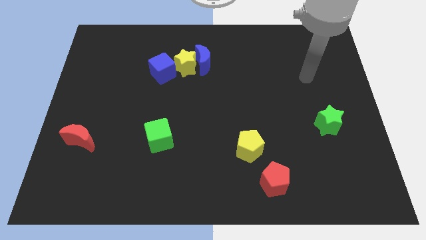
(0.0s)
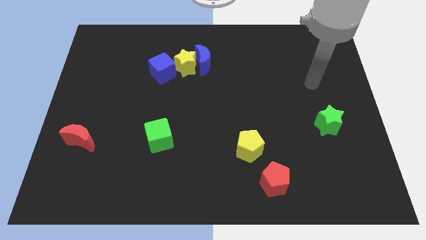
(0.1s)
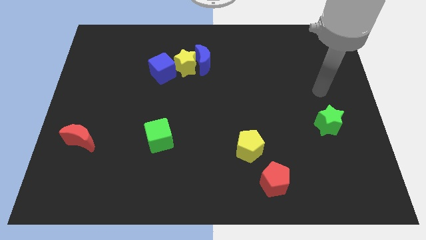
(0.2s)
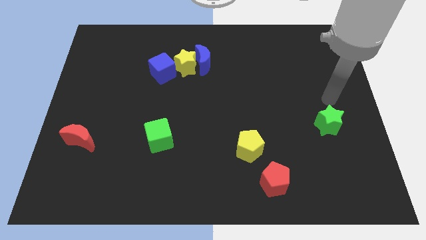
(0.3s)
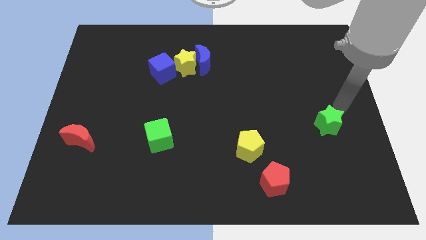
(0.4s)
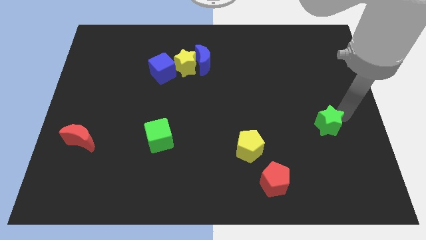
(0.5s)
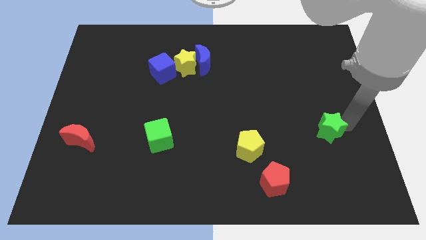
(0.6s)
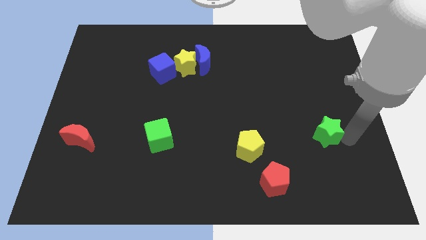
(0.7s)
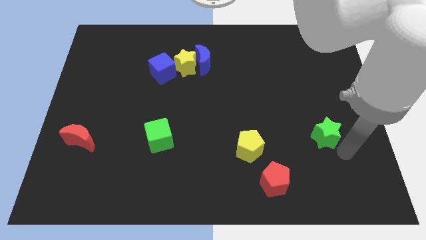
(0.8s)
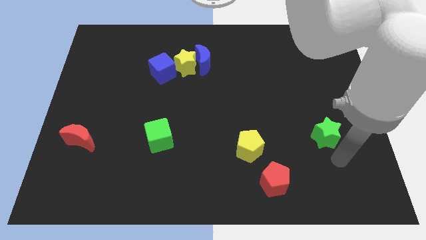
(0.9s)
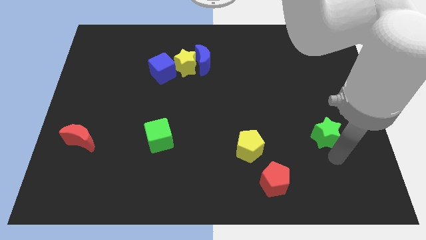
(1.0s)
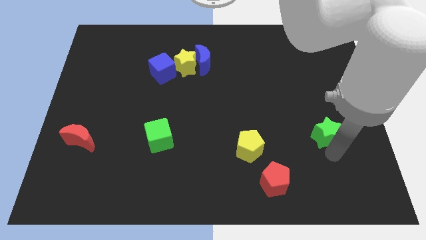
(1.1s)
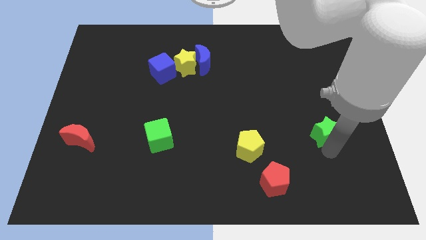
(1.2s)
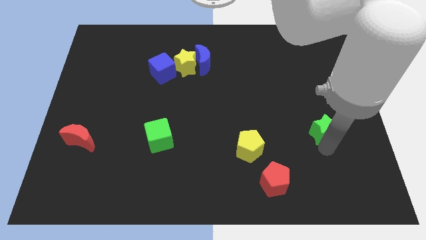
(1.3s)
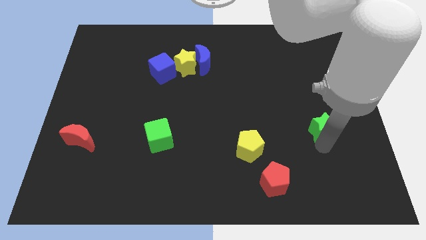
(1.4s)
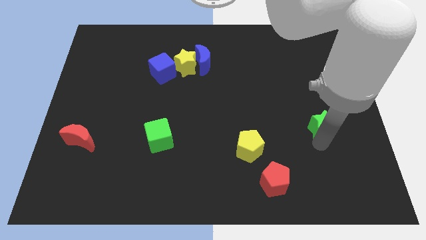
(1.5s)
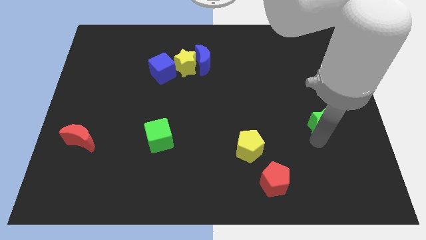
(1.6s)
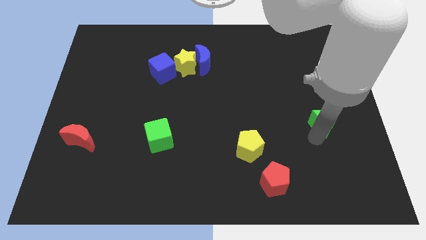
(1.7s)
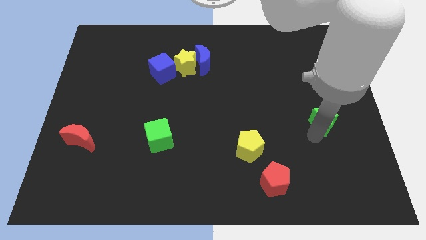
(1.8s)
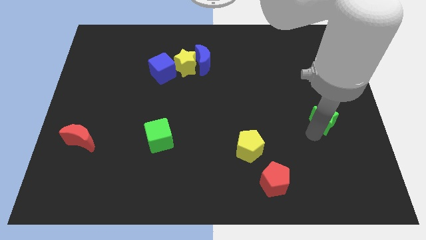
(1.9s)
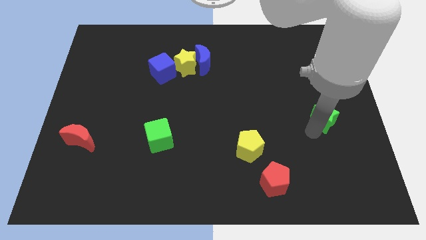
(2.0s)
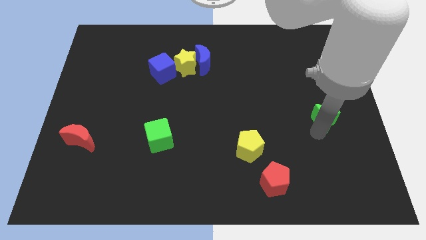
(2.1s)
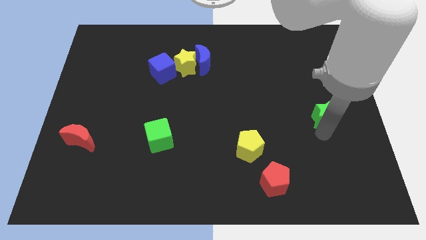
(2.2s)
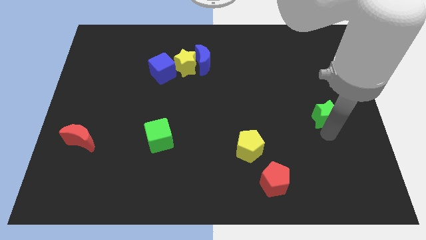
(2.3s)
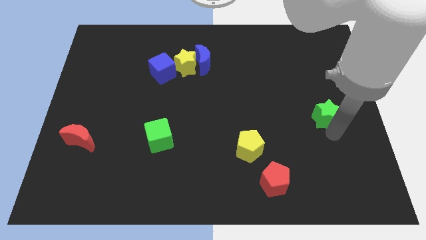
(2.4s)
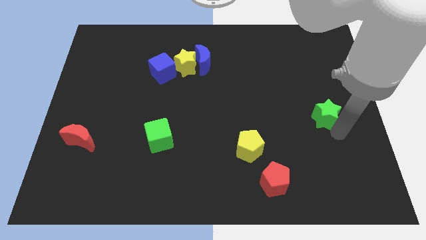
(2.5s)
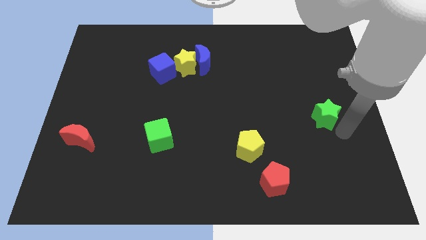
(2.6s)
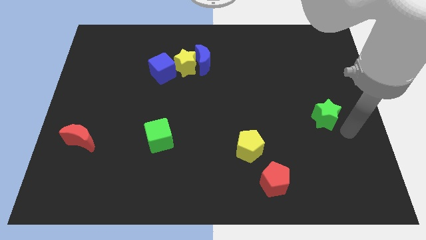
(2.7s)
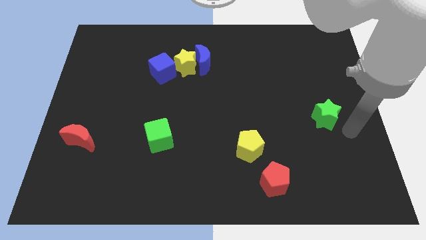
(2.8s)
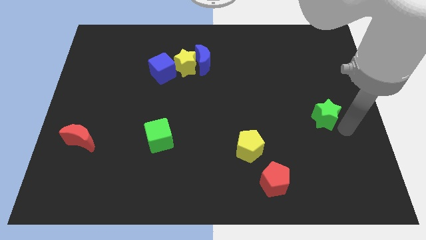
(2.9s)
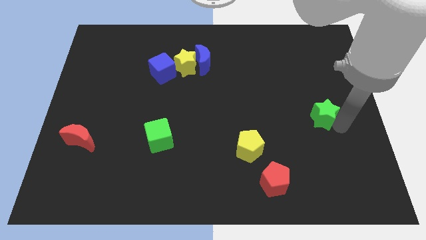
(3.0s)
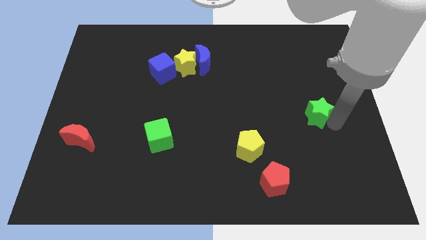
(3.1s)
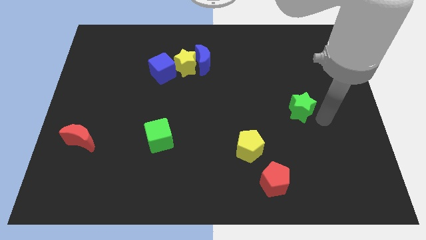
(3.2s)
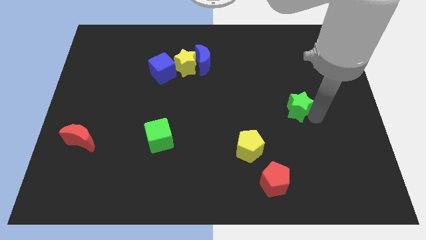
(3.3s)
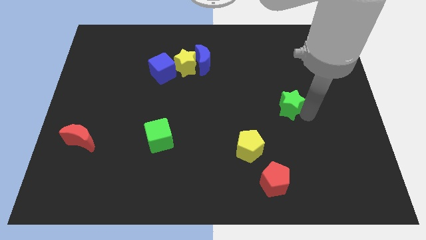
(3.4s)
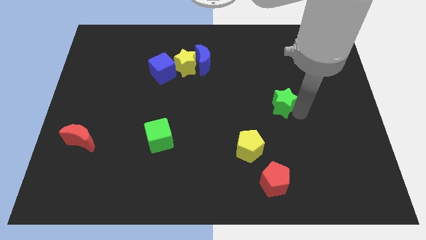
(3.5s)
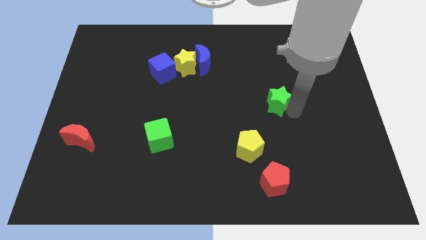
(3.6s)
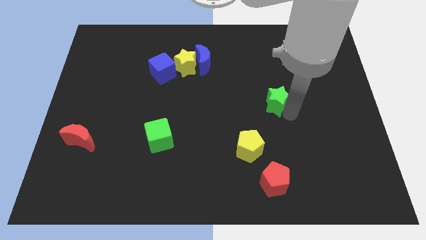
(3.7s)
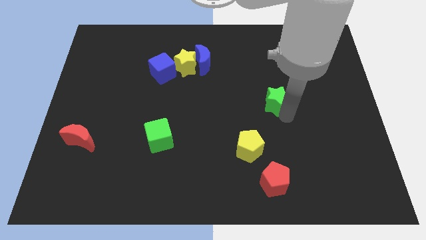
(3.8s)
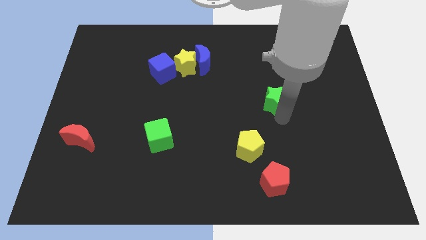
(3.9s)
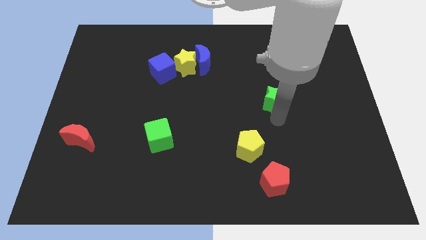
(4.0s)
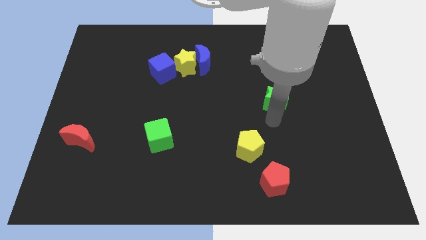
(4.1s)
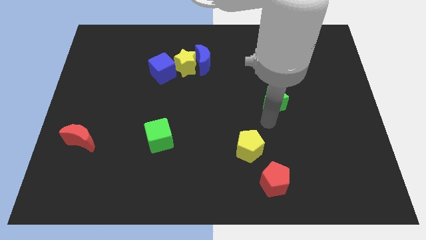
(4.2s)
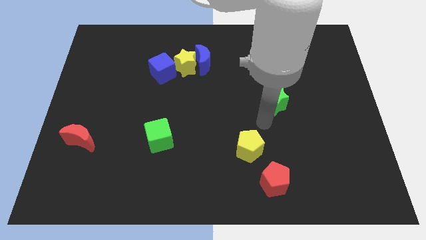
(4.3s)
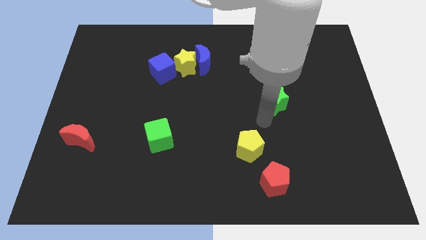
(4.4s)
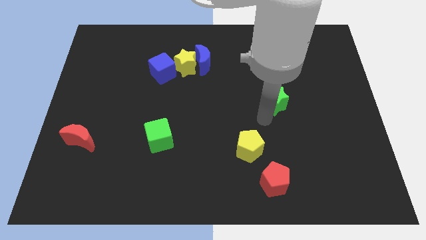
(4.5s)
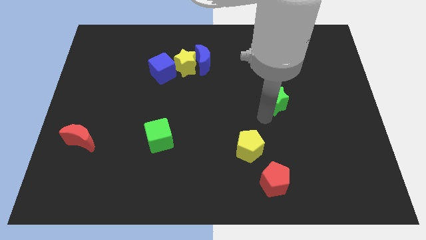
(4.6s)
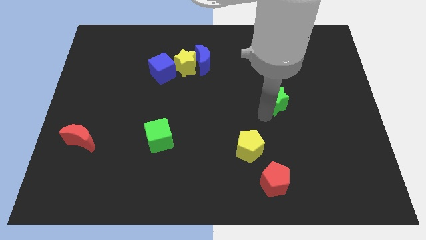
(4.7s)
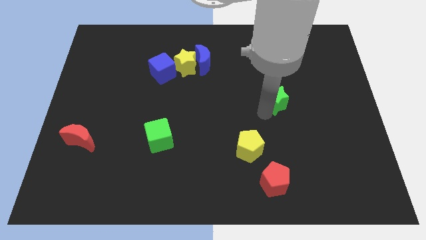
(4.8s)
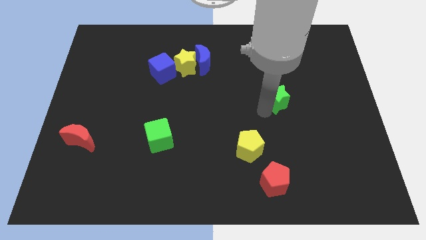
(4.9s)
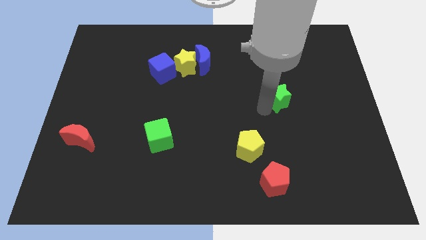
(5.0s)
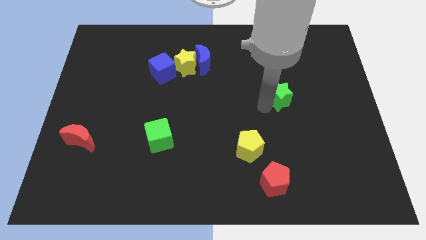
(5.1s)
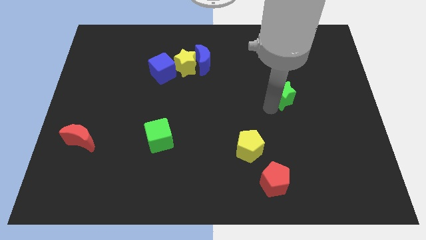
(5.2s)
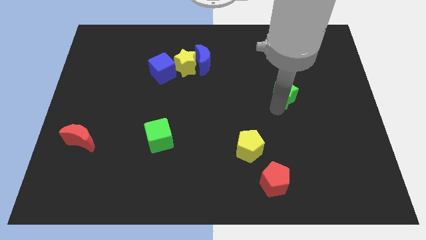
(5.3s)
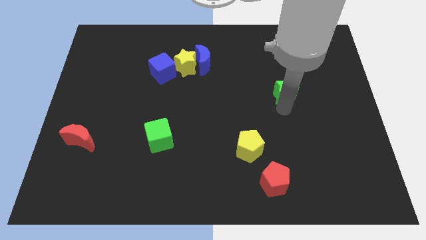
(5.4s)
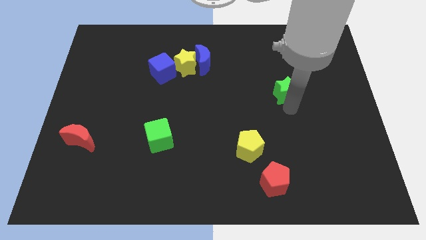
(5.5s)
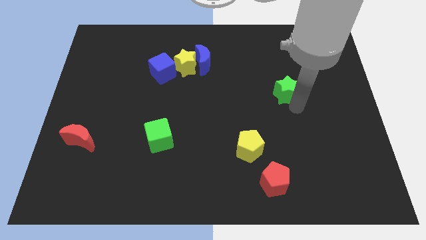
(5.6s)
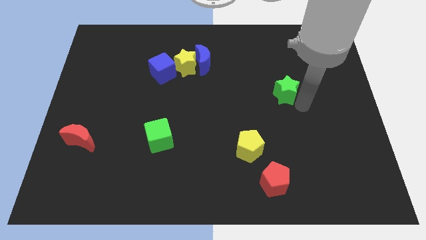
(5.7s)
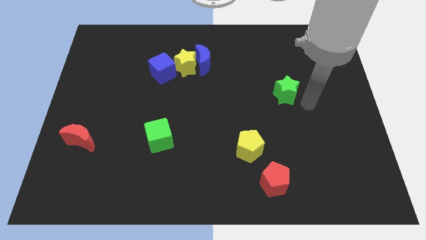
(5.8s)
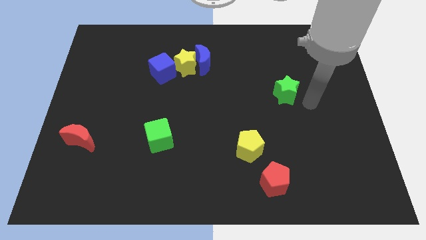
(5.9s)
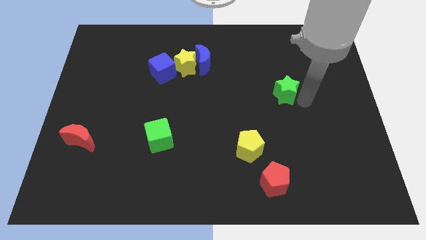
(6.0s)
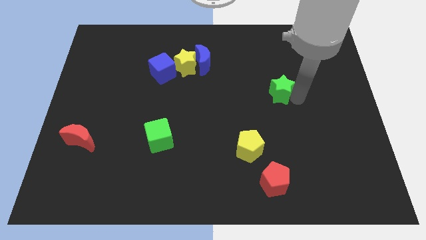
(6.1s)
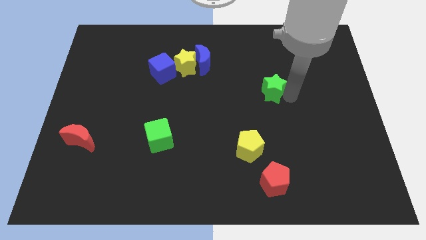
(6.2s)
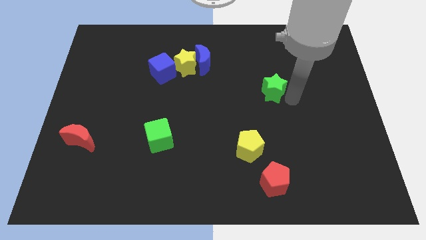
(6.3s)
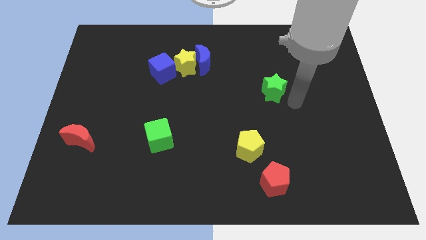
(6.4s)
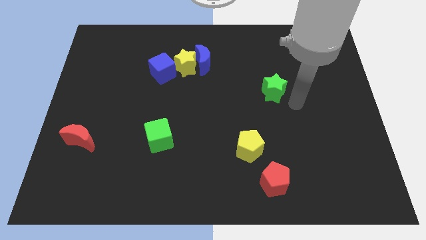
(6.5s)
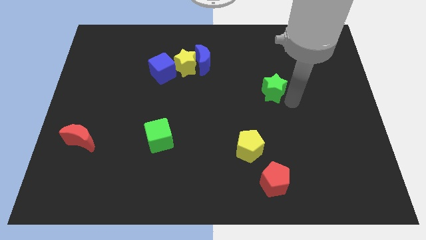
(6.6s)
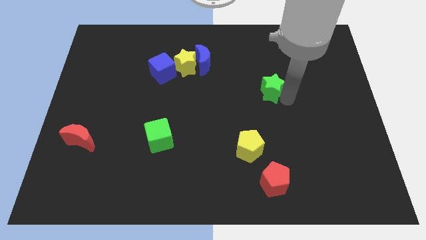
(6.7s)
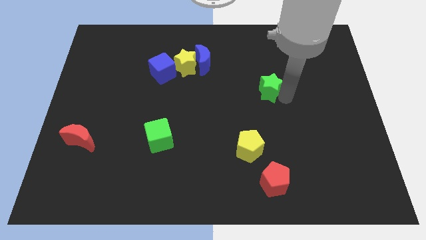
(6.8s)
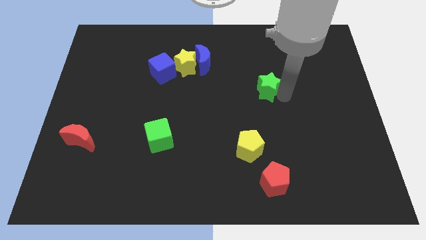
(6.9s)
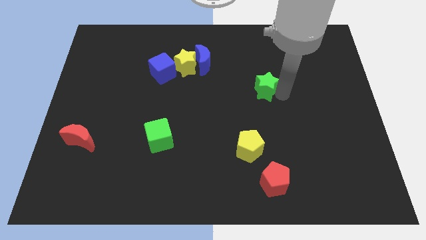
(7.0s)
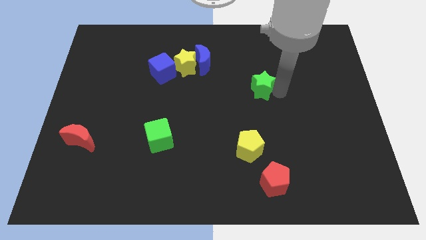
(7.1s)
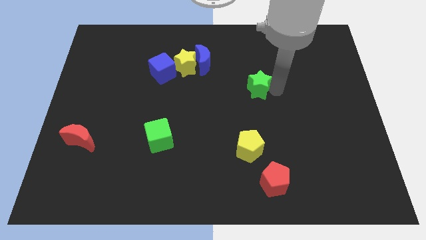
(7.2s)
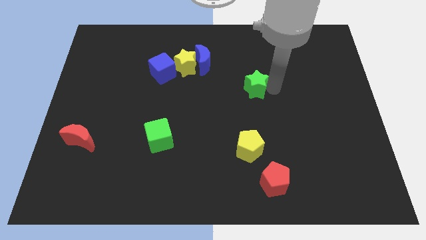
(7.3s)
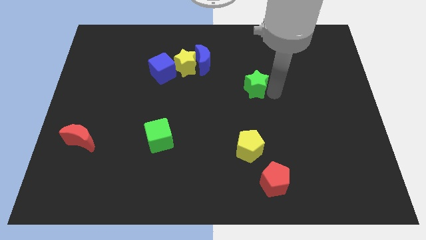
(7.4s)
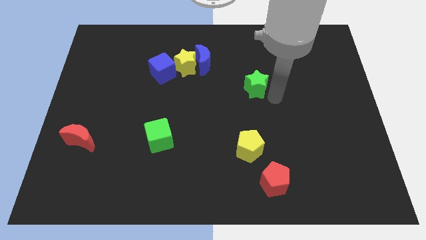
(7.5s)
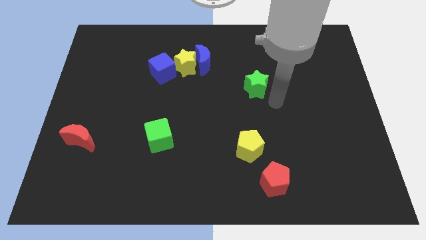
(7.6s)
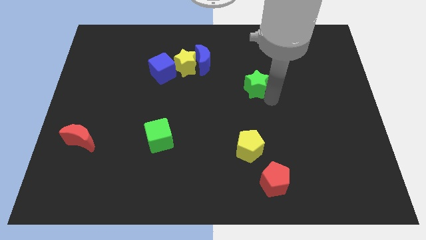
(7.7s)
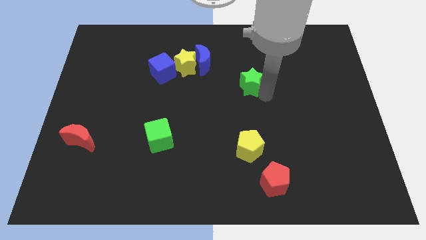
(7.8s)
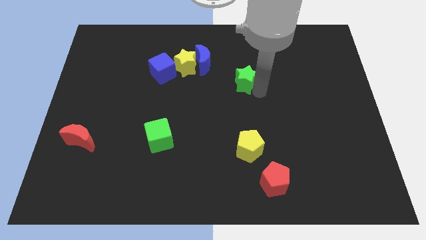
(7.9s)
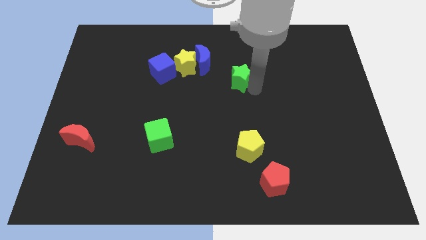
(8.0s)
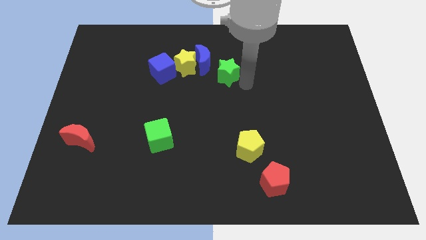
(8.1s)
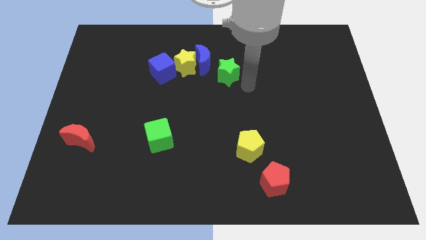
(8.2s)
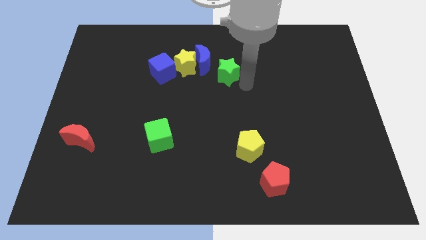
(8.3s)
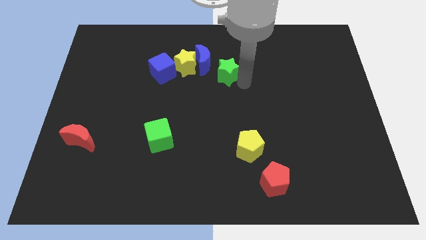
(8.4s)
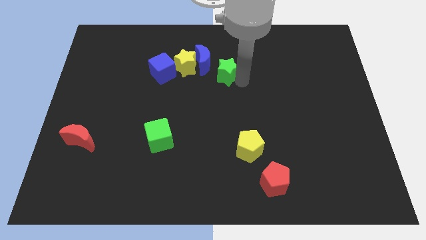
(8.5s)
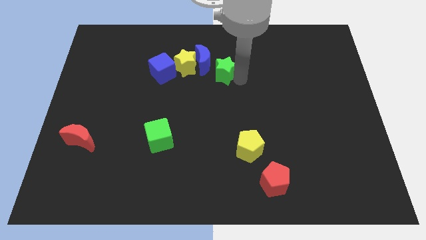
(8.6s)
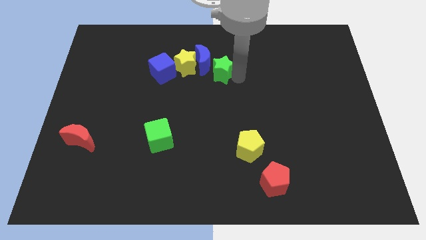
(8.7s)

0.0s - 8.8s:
move the green star next to the blue moon
